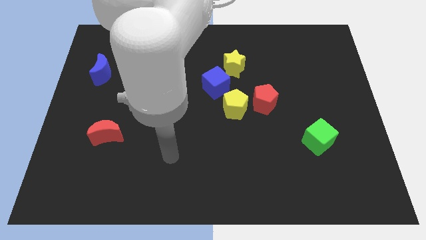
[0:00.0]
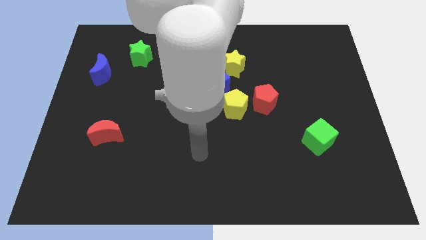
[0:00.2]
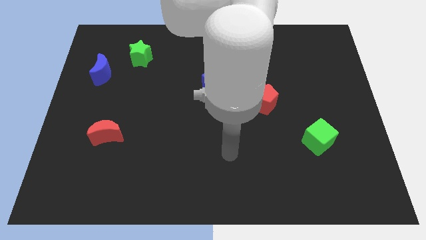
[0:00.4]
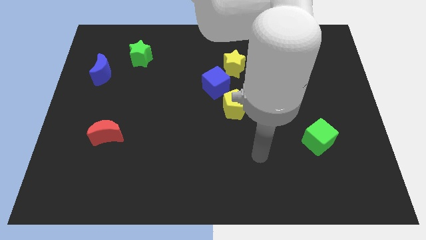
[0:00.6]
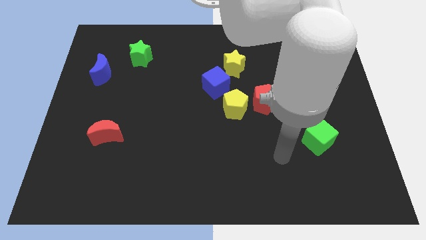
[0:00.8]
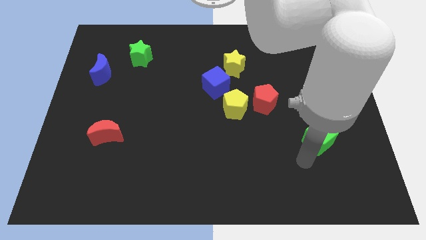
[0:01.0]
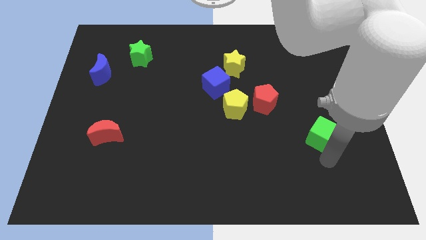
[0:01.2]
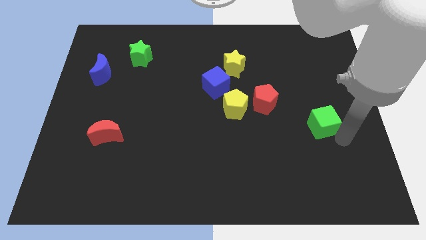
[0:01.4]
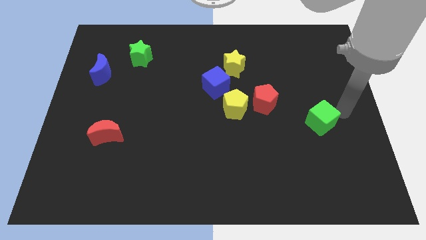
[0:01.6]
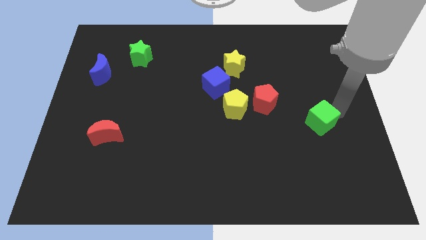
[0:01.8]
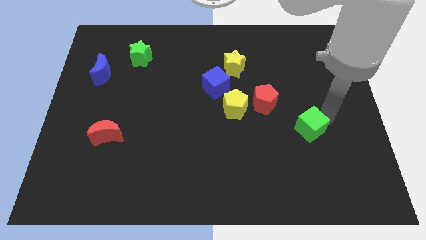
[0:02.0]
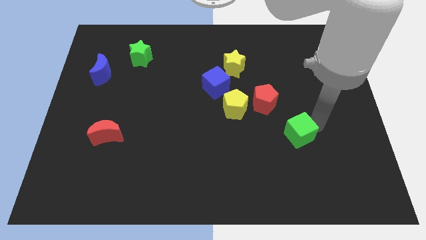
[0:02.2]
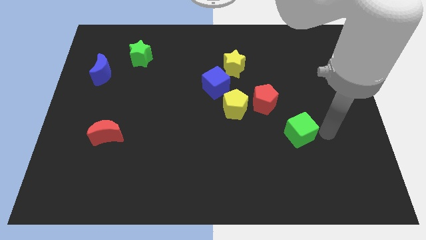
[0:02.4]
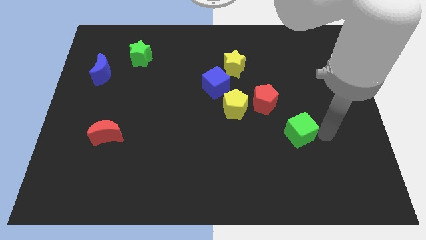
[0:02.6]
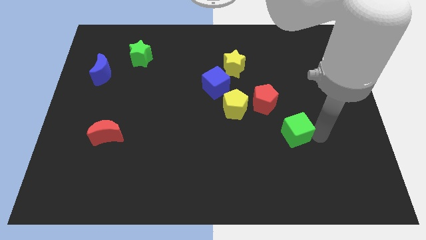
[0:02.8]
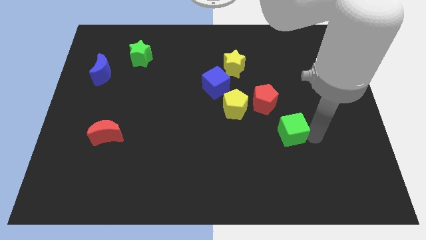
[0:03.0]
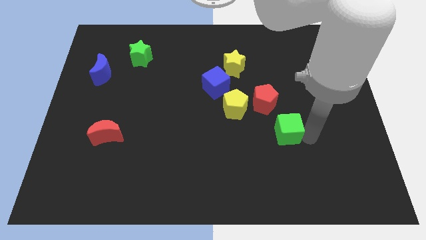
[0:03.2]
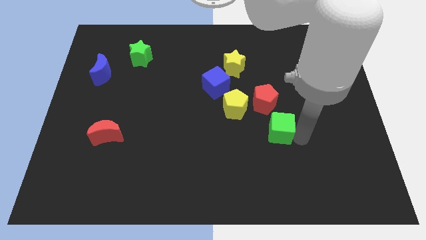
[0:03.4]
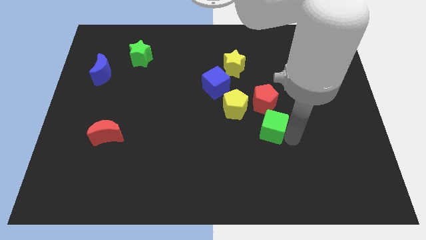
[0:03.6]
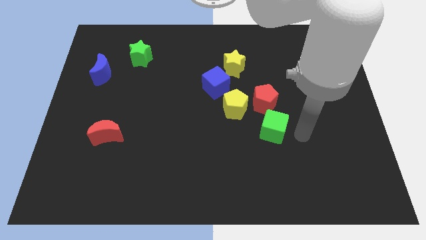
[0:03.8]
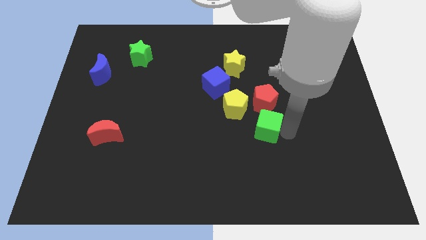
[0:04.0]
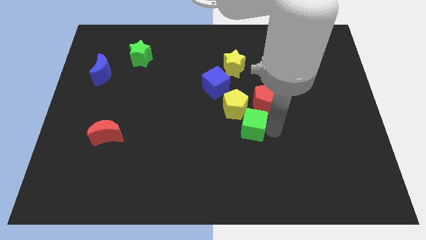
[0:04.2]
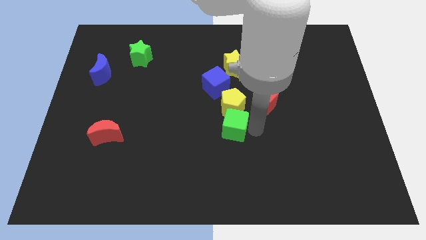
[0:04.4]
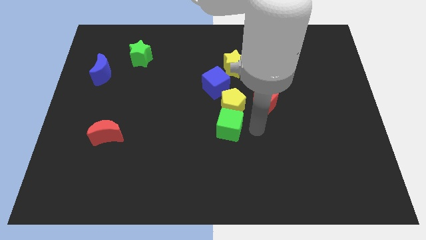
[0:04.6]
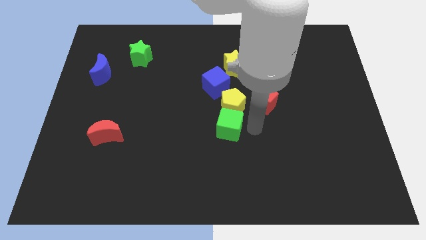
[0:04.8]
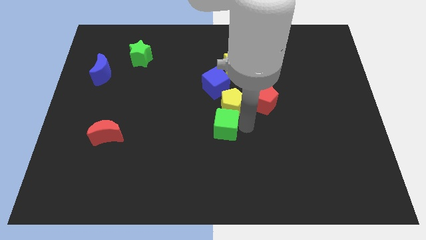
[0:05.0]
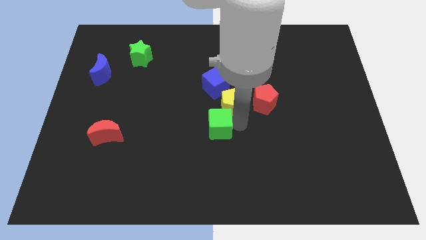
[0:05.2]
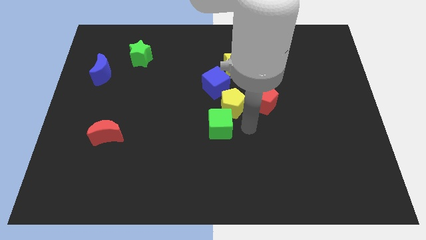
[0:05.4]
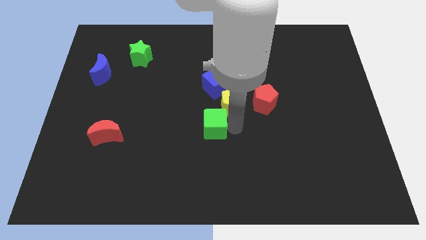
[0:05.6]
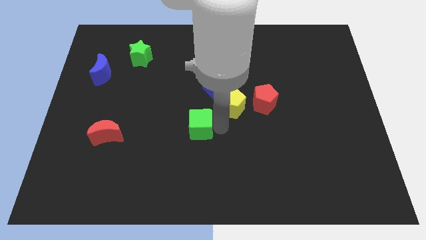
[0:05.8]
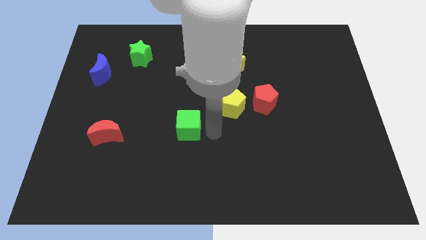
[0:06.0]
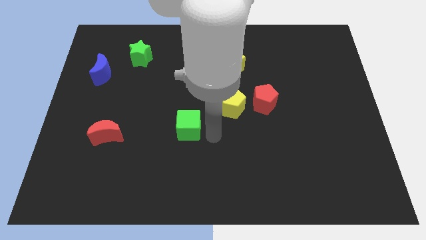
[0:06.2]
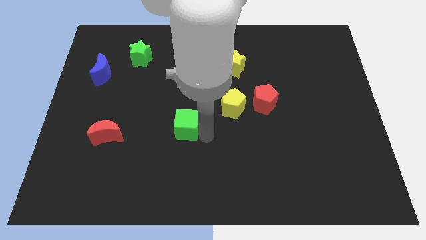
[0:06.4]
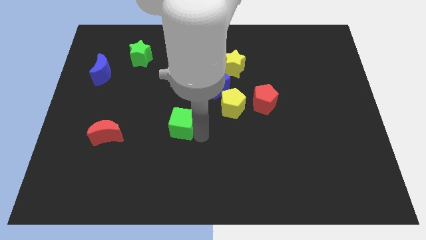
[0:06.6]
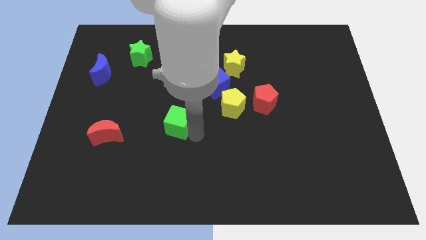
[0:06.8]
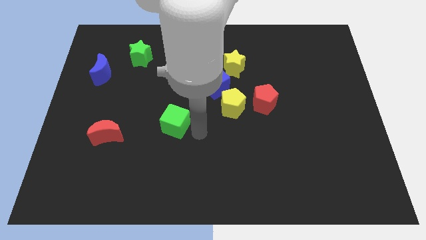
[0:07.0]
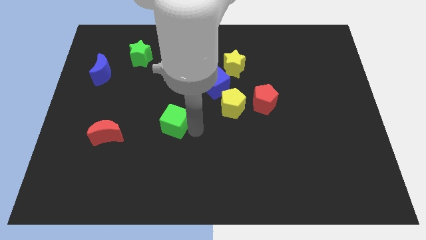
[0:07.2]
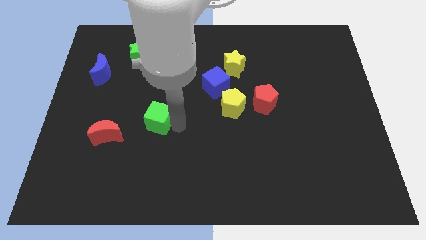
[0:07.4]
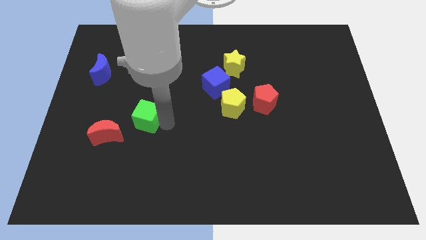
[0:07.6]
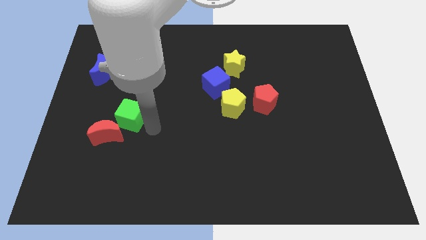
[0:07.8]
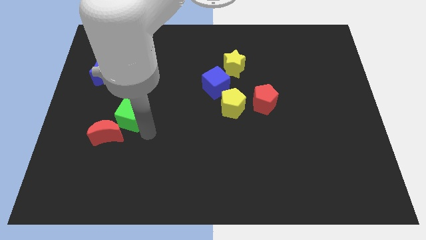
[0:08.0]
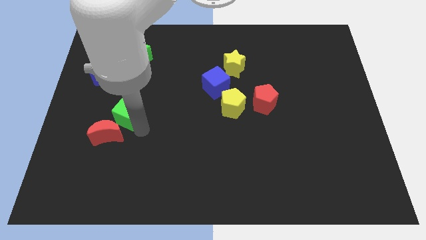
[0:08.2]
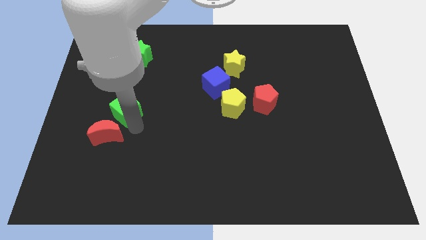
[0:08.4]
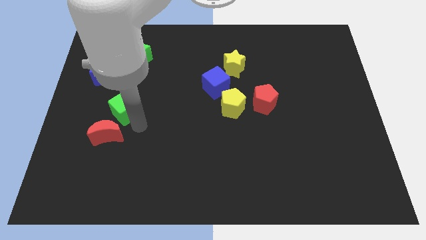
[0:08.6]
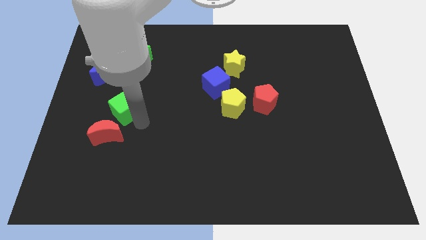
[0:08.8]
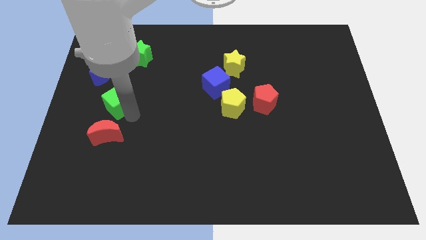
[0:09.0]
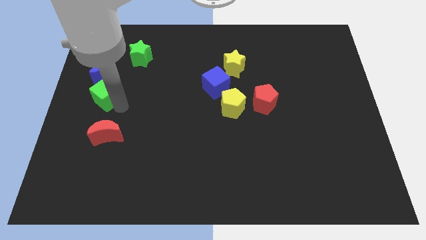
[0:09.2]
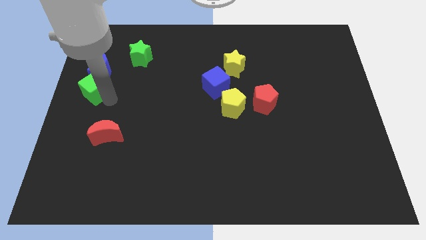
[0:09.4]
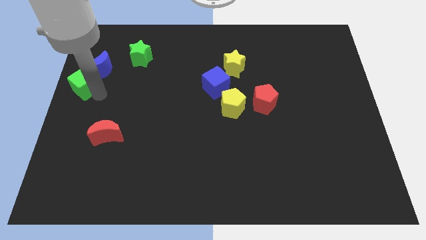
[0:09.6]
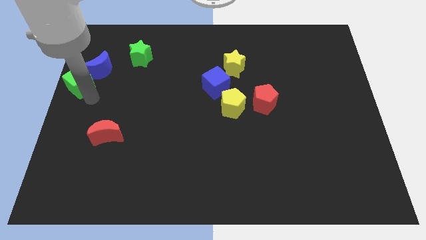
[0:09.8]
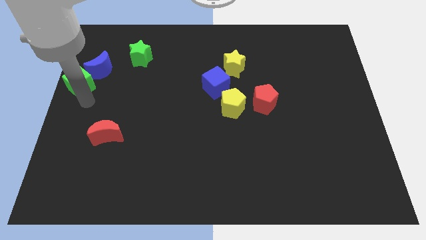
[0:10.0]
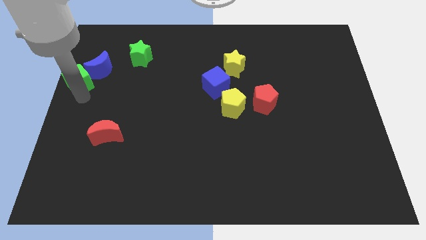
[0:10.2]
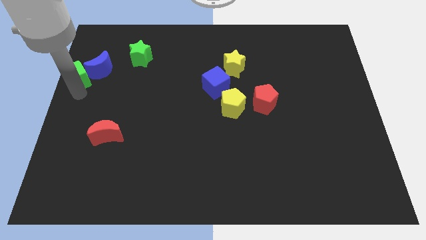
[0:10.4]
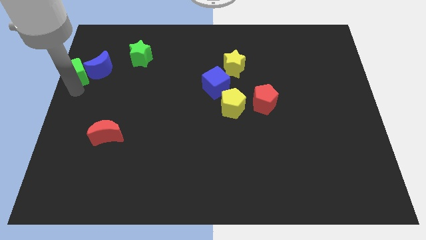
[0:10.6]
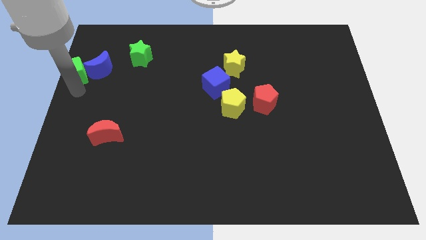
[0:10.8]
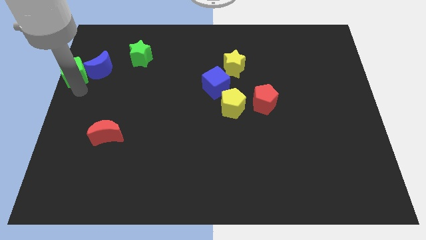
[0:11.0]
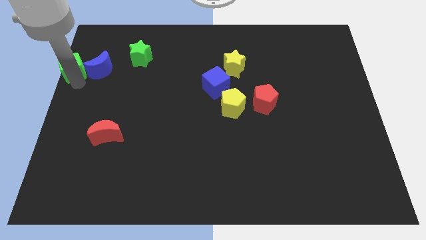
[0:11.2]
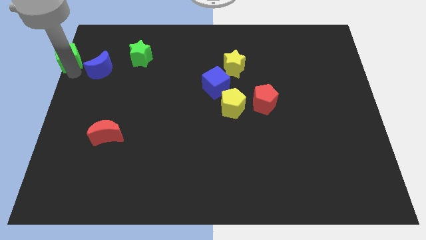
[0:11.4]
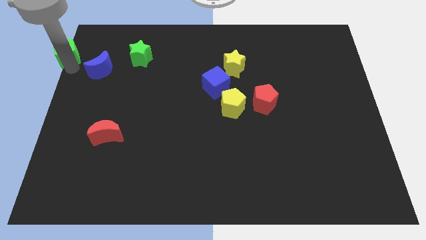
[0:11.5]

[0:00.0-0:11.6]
put the green cube to the upper left corner
